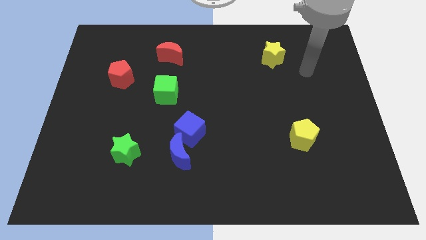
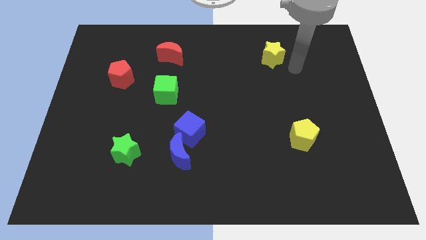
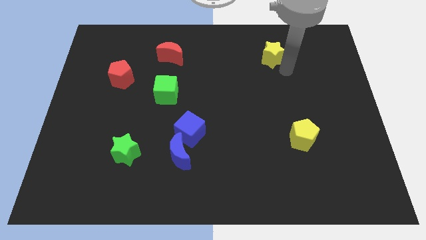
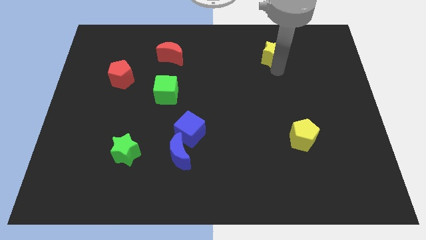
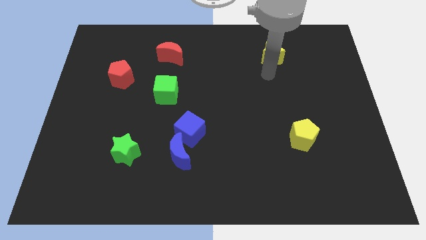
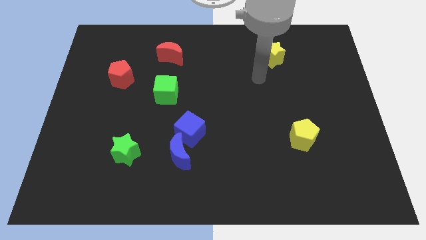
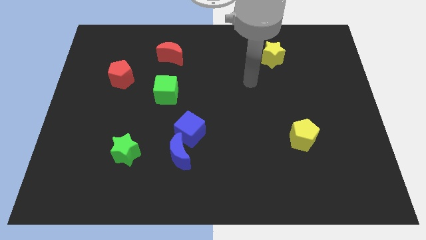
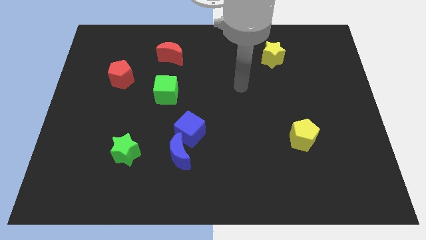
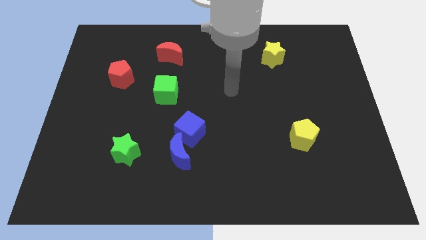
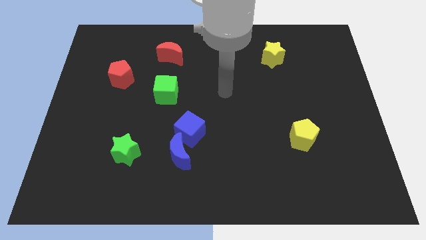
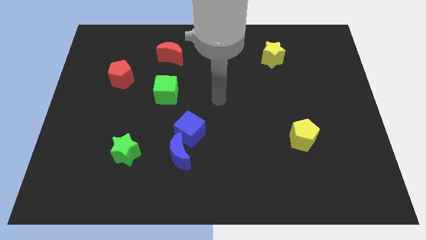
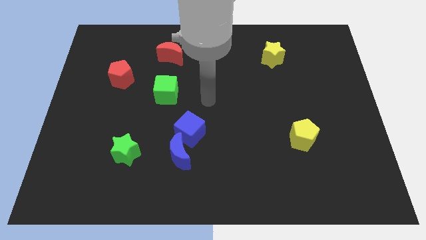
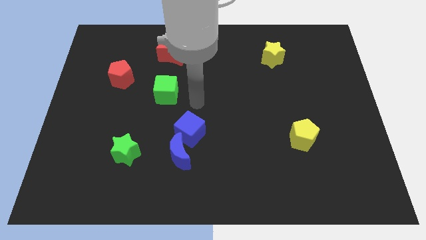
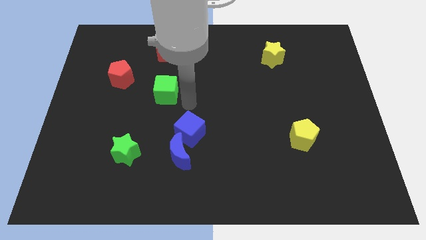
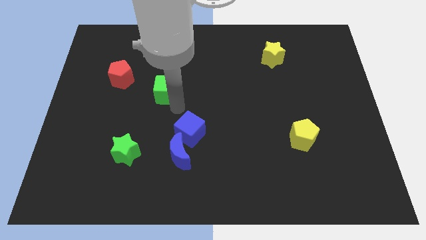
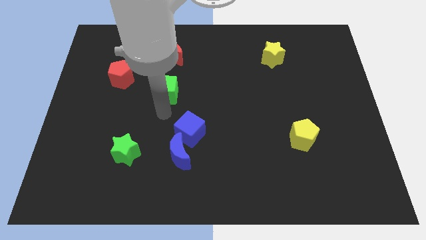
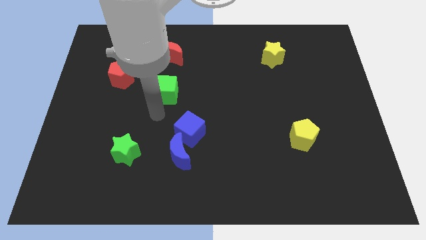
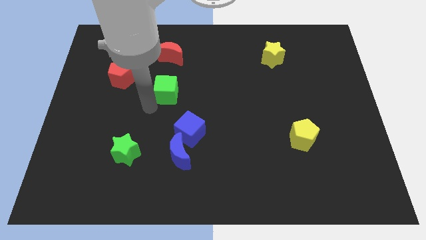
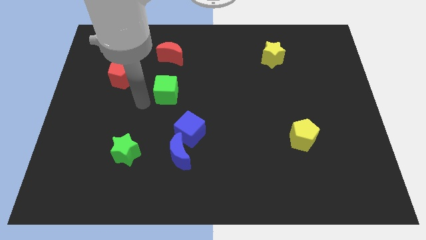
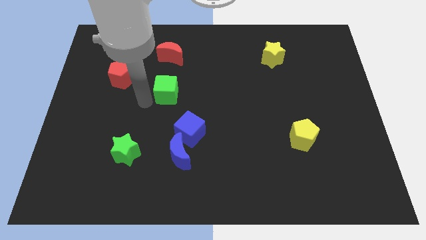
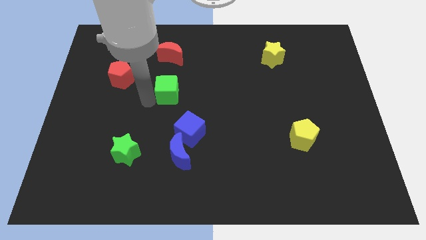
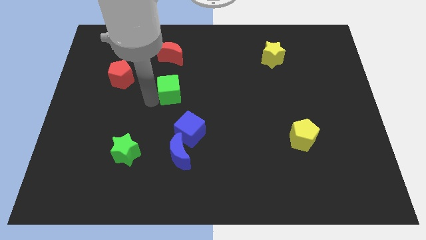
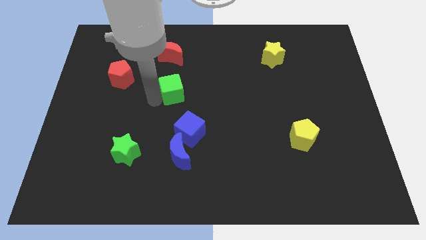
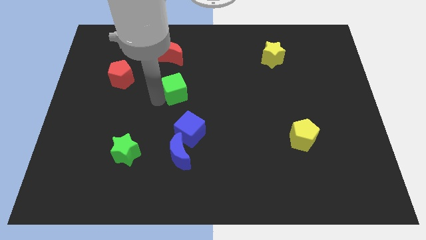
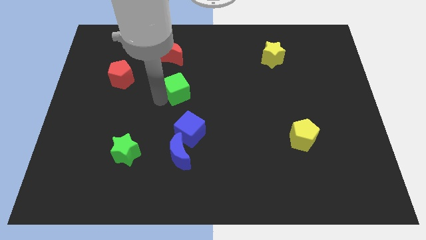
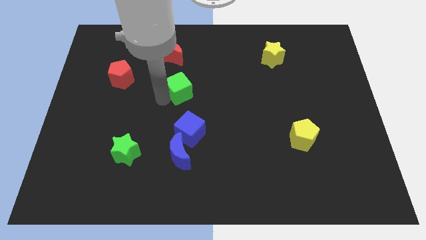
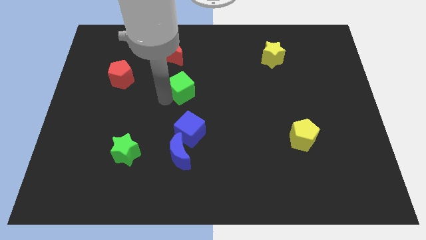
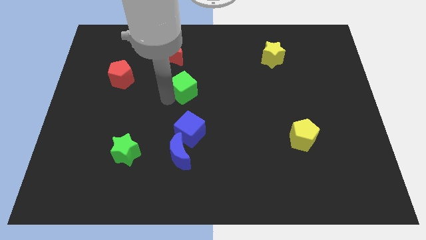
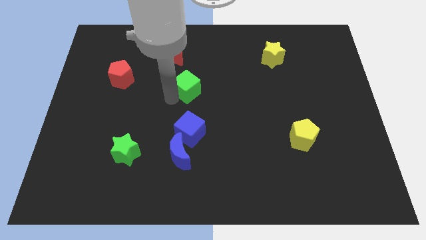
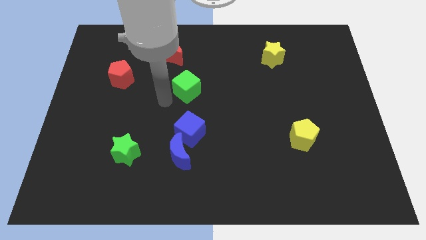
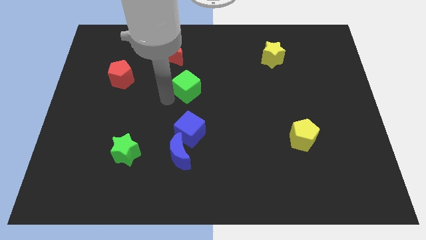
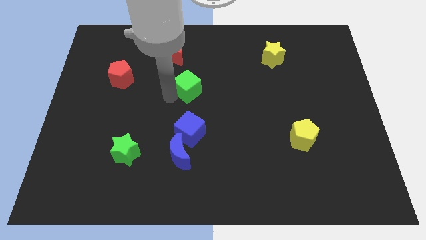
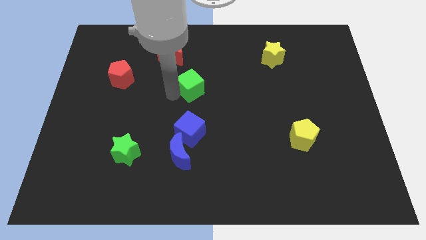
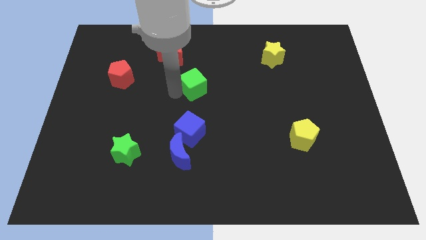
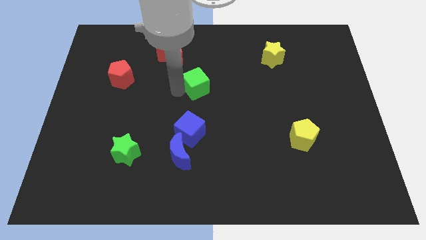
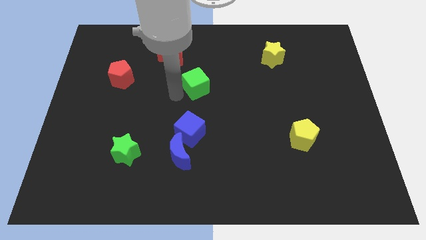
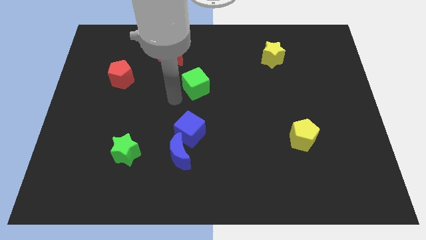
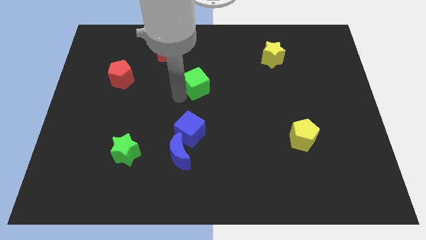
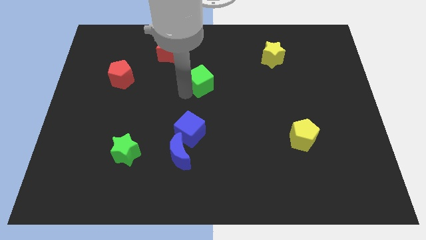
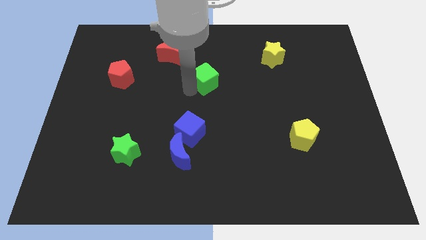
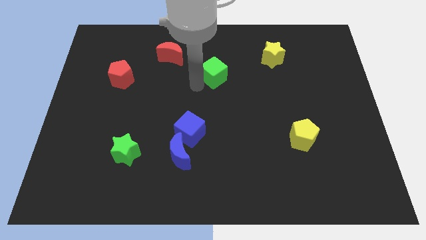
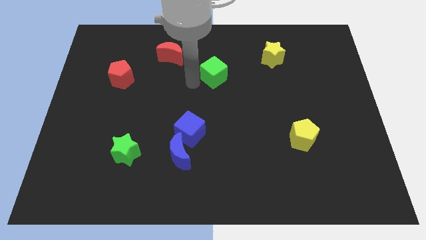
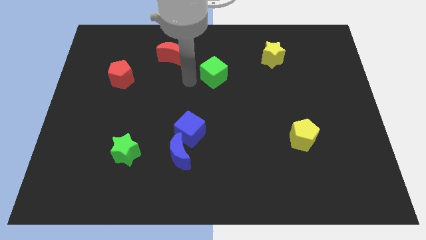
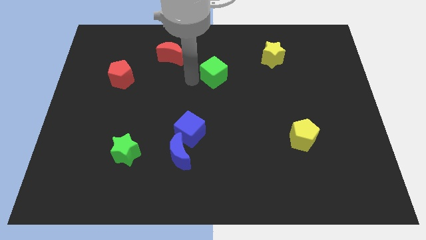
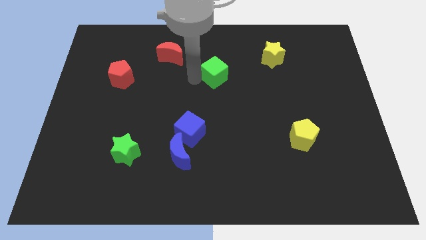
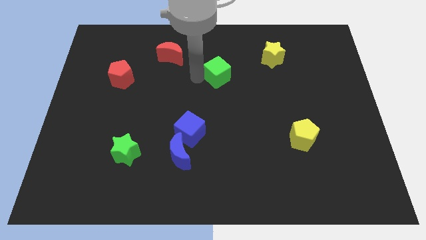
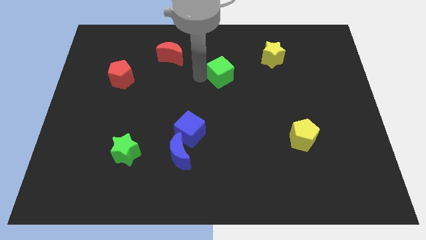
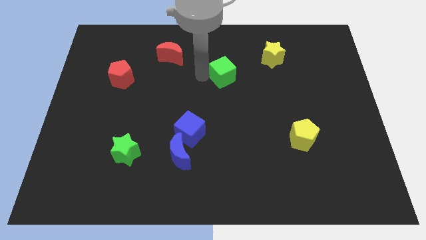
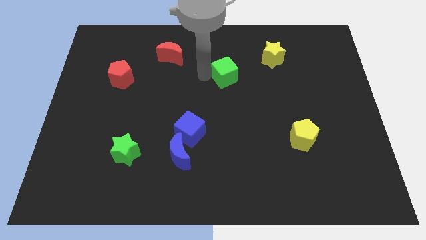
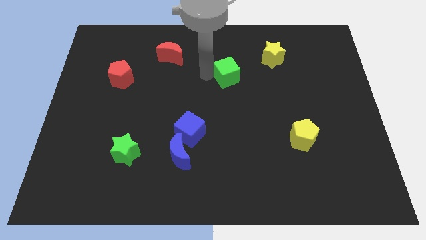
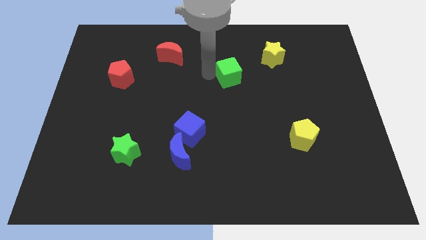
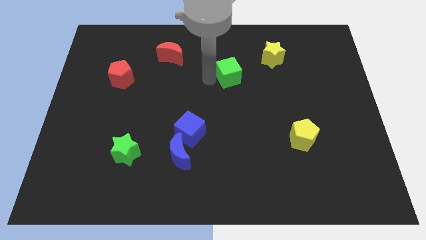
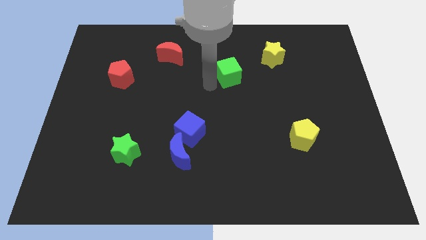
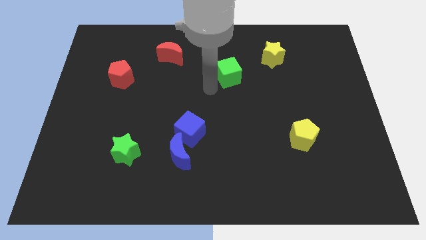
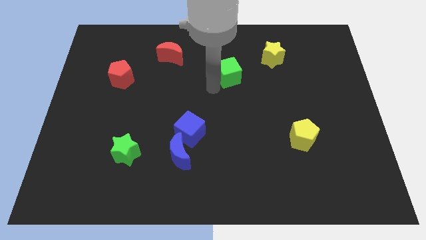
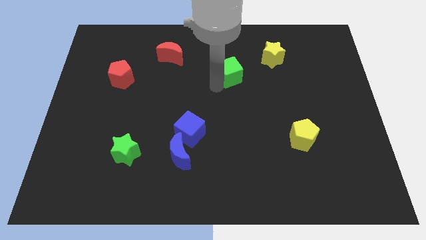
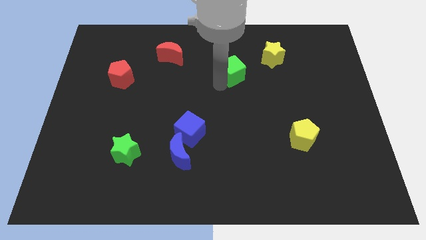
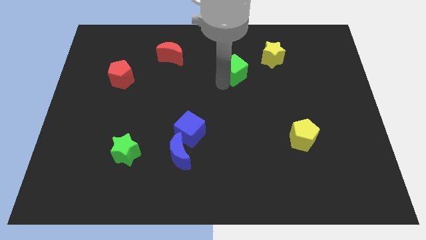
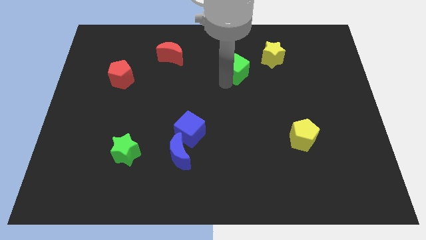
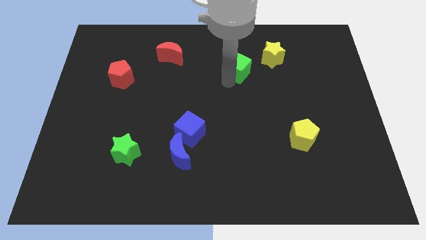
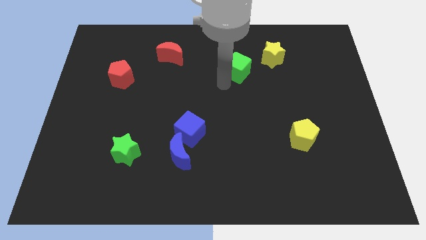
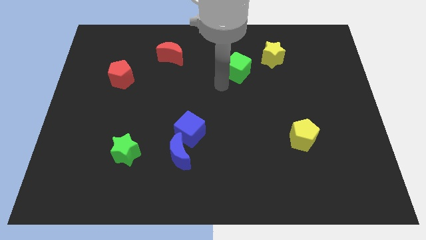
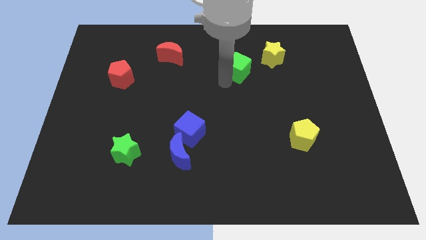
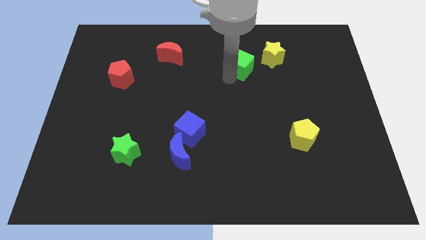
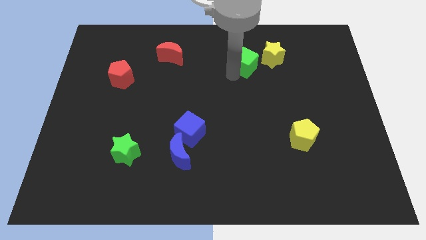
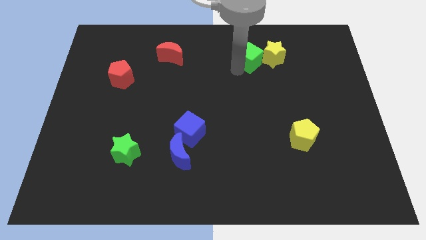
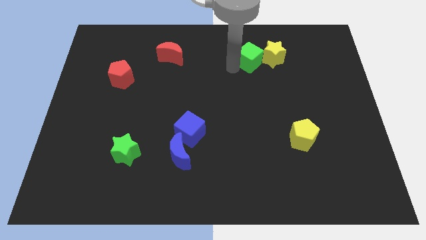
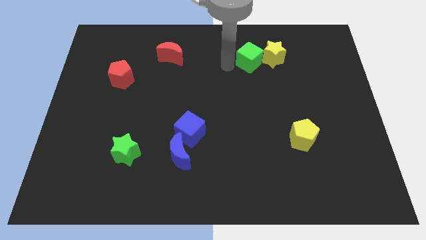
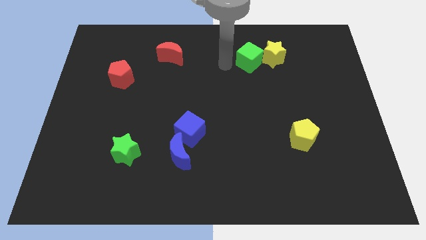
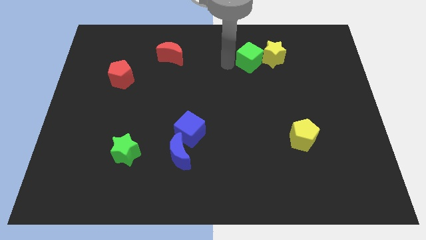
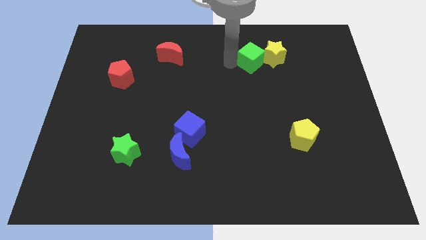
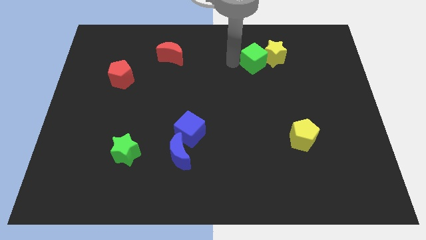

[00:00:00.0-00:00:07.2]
move the green cube to the yellow star

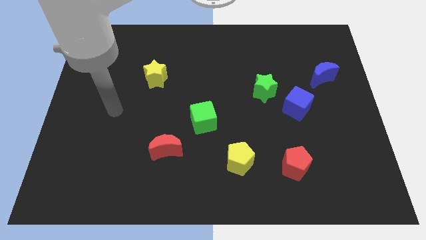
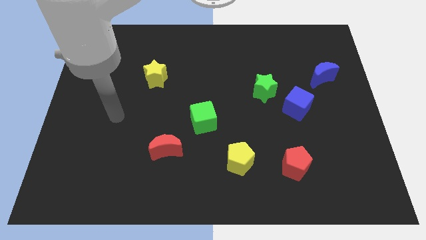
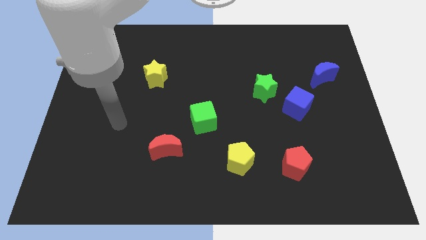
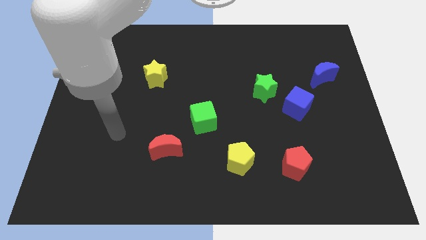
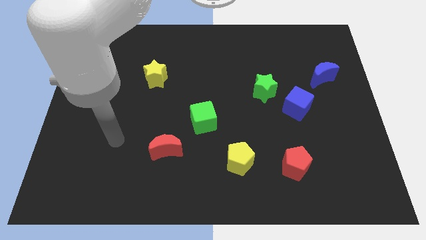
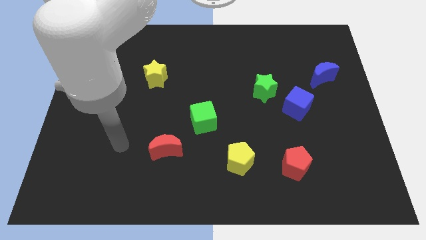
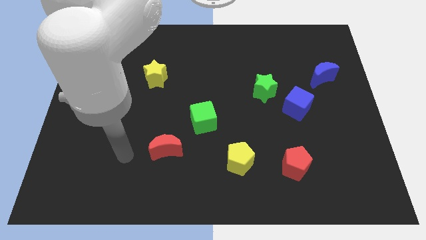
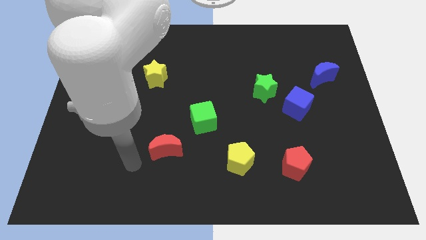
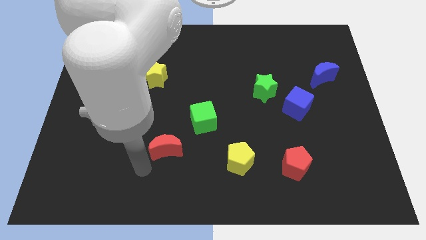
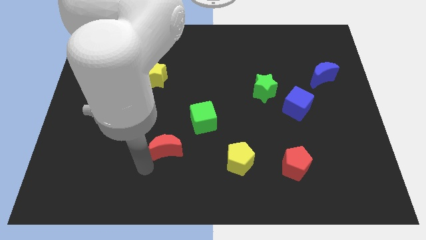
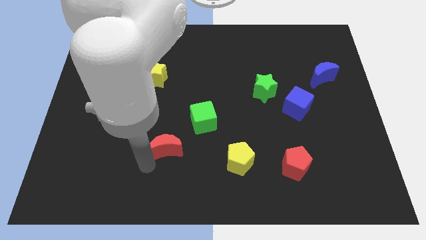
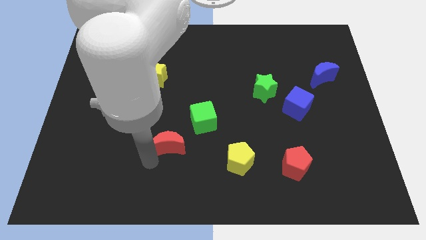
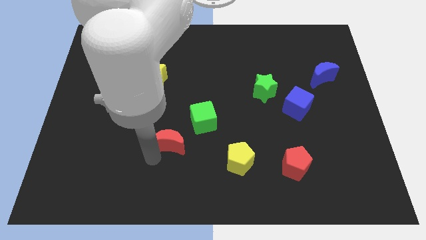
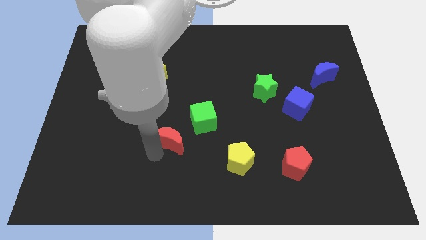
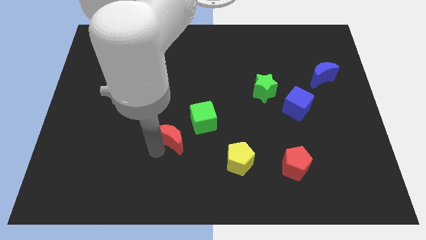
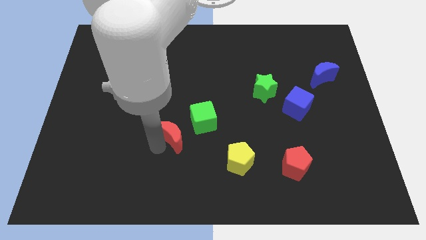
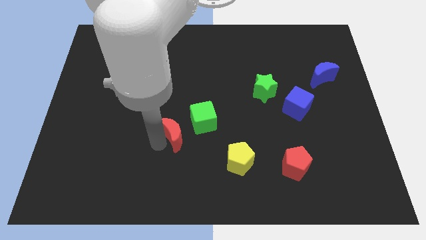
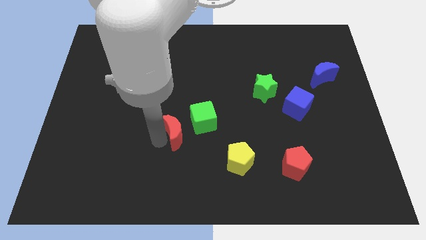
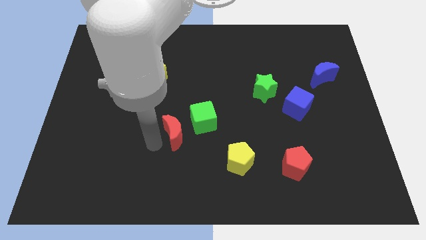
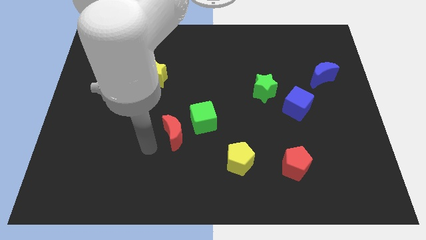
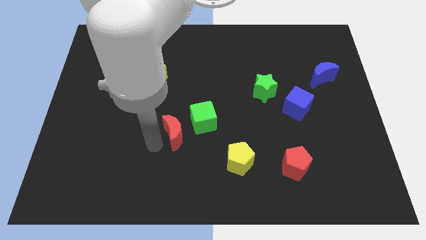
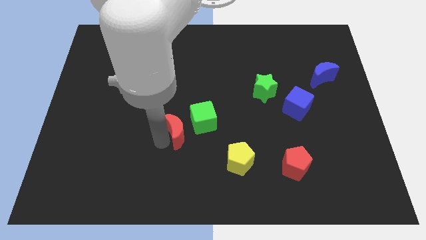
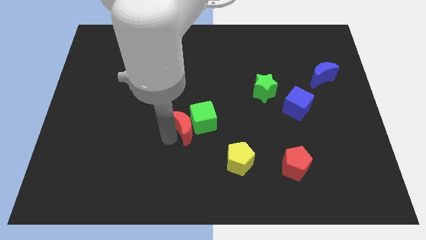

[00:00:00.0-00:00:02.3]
push the red moon to the green cube
